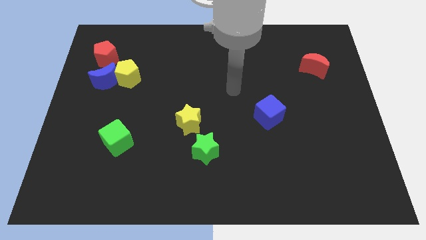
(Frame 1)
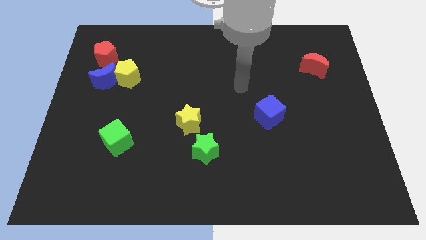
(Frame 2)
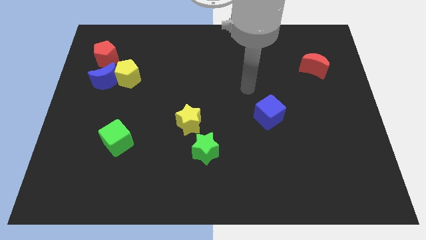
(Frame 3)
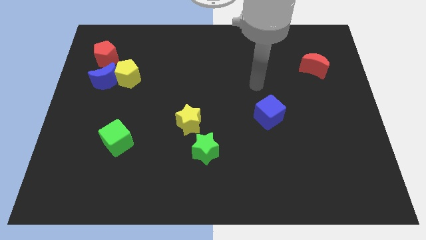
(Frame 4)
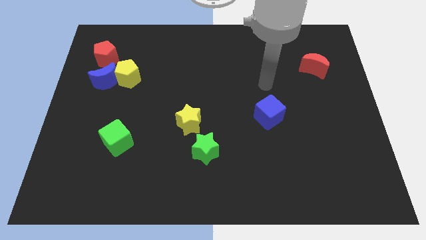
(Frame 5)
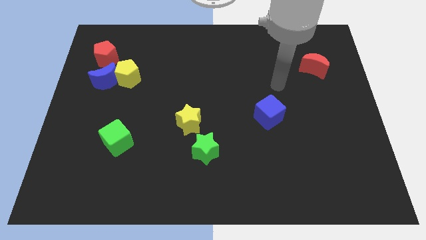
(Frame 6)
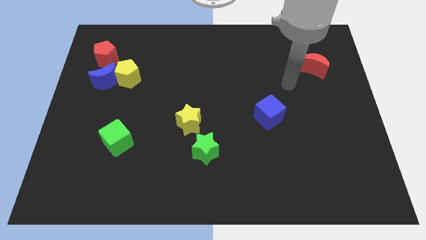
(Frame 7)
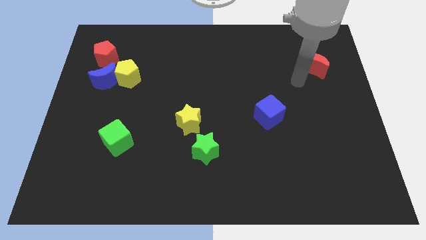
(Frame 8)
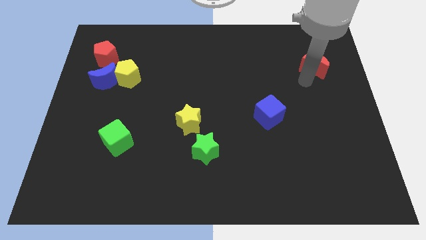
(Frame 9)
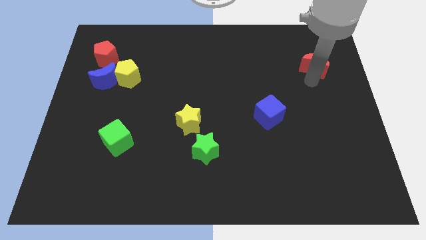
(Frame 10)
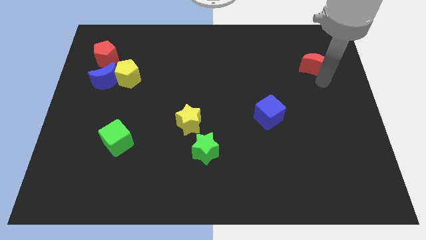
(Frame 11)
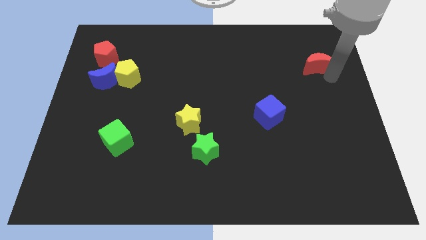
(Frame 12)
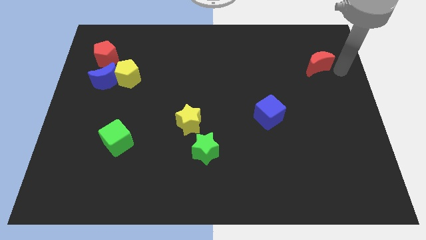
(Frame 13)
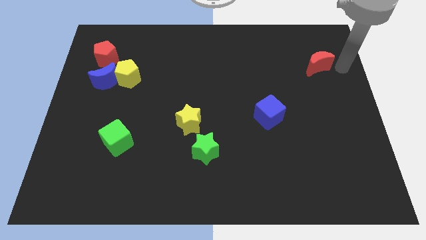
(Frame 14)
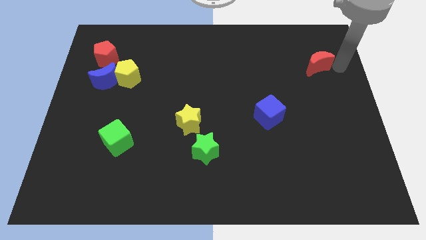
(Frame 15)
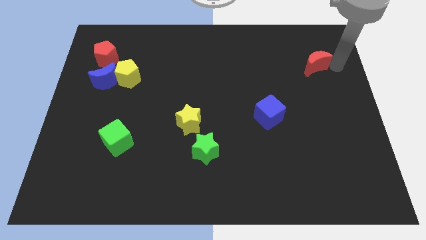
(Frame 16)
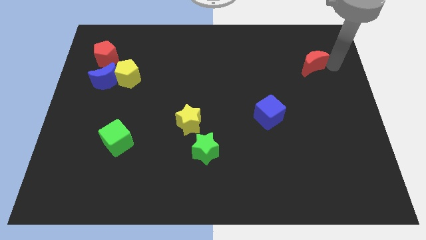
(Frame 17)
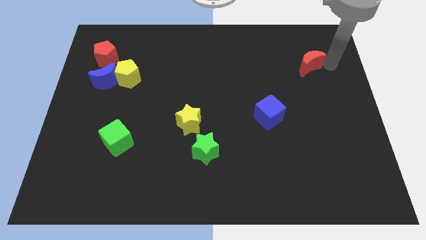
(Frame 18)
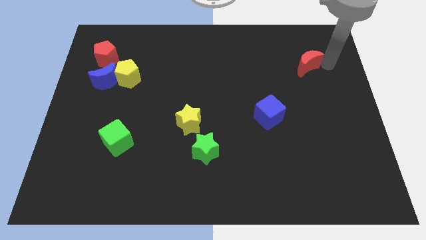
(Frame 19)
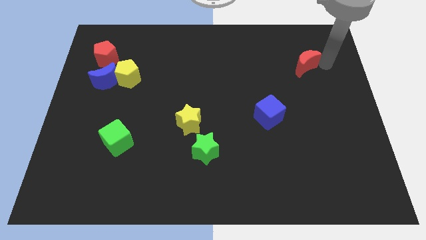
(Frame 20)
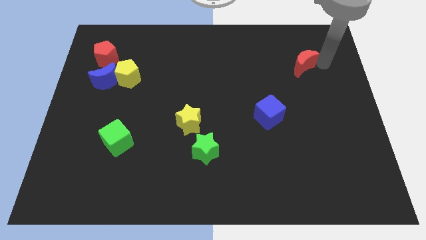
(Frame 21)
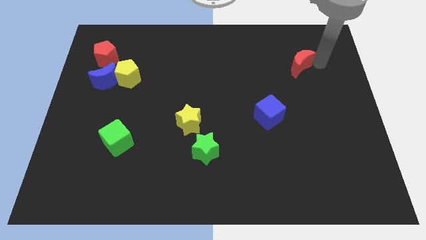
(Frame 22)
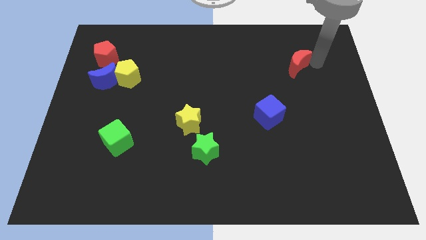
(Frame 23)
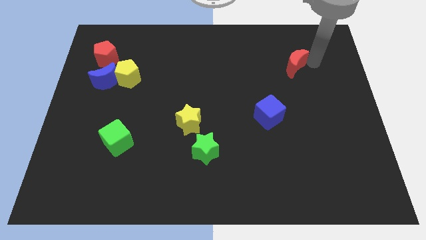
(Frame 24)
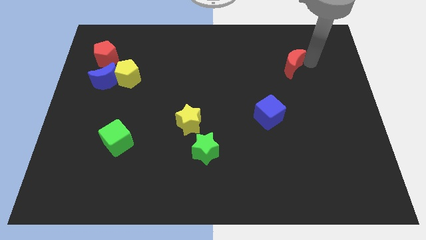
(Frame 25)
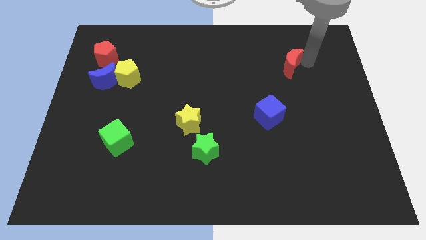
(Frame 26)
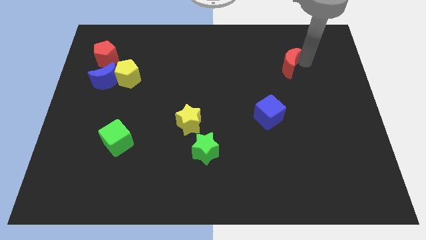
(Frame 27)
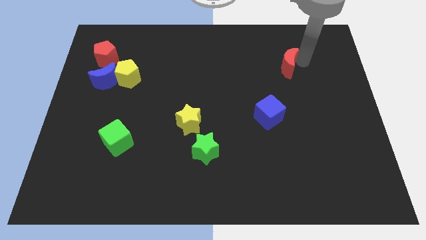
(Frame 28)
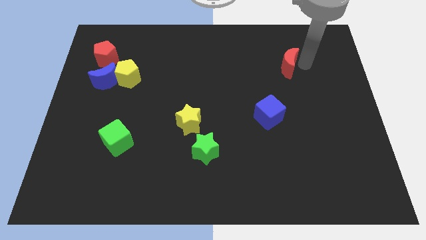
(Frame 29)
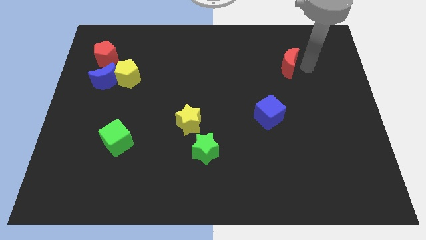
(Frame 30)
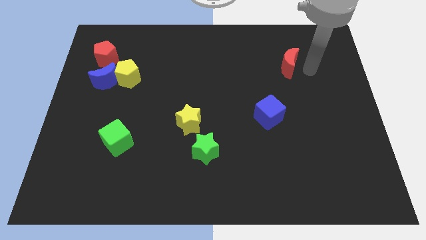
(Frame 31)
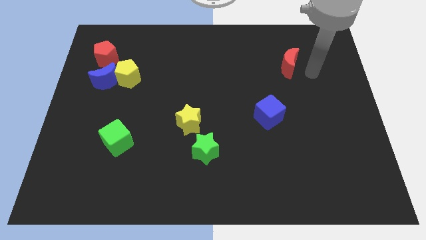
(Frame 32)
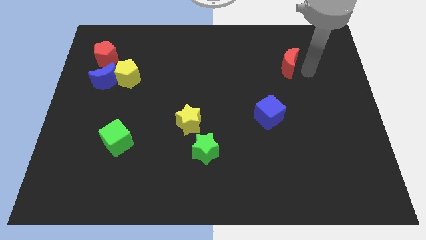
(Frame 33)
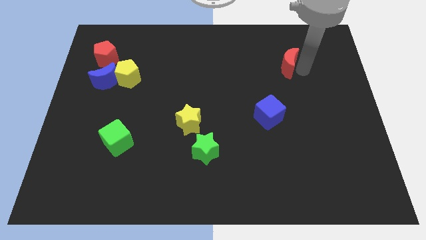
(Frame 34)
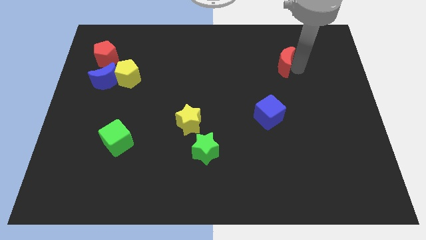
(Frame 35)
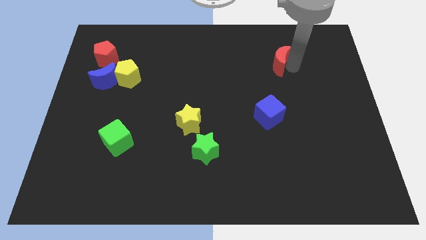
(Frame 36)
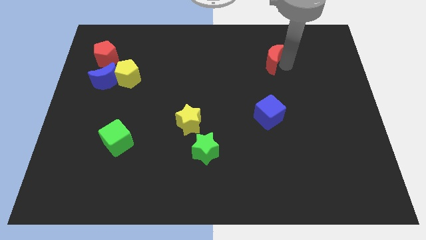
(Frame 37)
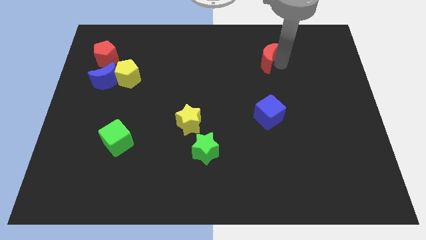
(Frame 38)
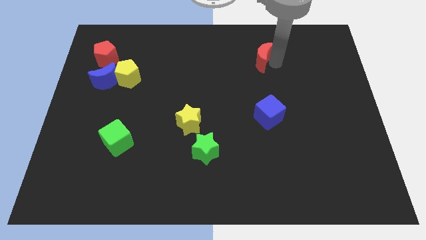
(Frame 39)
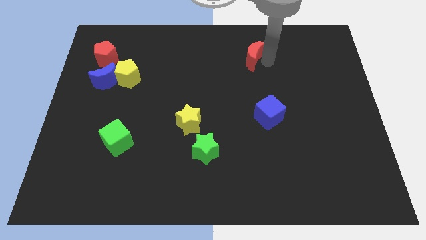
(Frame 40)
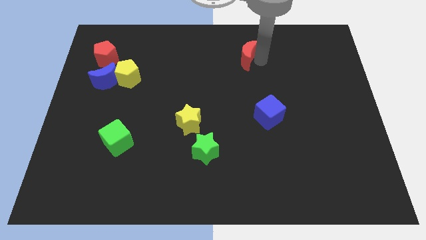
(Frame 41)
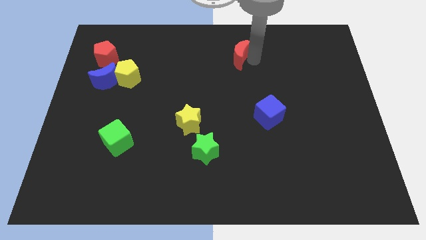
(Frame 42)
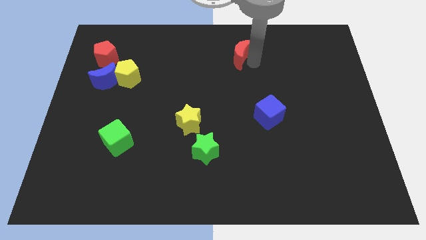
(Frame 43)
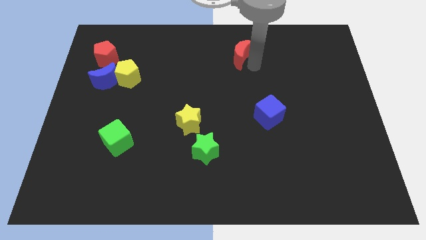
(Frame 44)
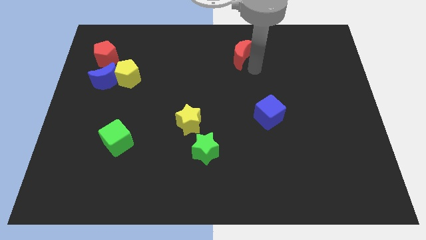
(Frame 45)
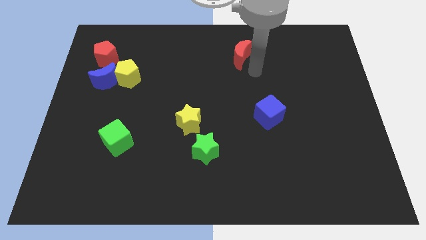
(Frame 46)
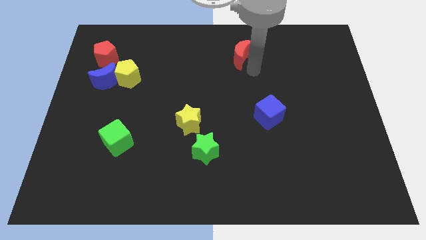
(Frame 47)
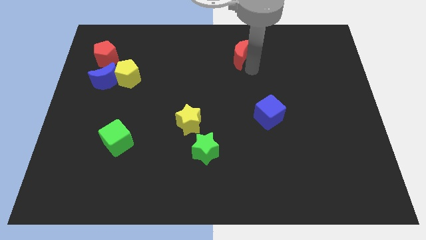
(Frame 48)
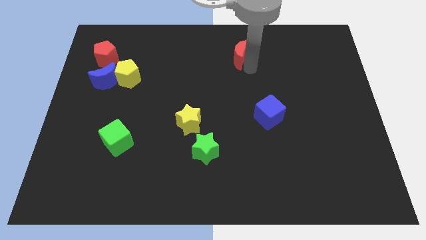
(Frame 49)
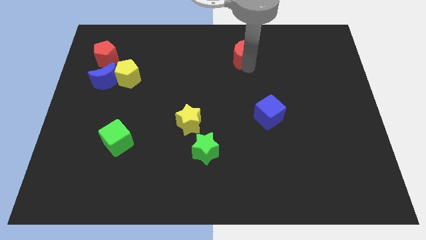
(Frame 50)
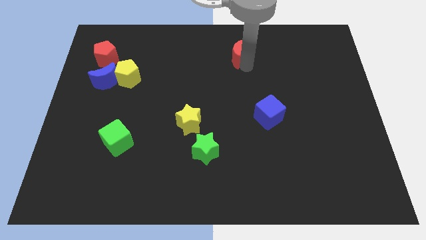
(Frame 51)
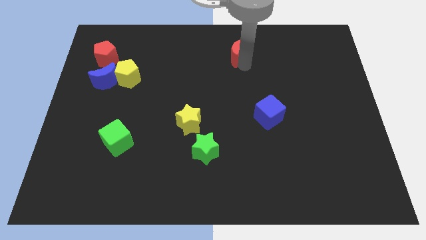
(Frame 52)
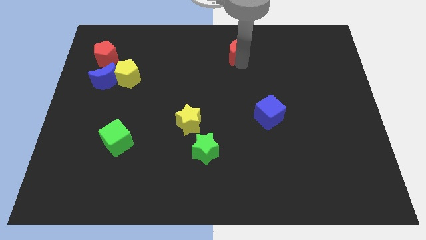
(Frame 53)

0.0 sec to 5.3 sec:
slide the red moon to the towards your base

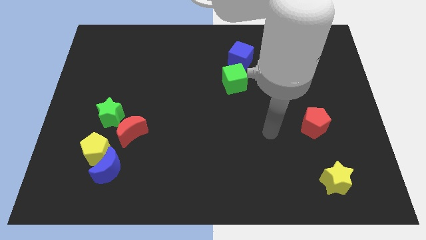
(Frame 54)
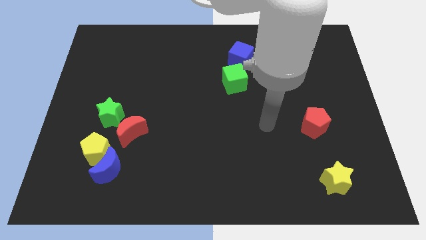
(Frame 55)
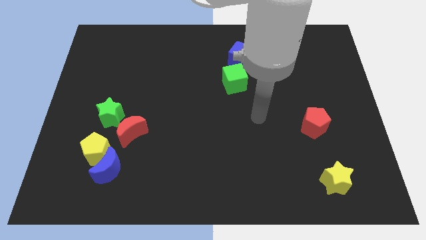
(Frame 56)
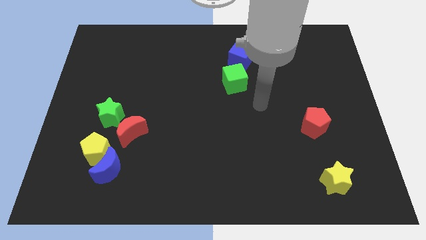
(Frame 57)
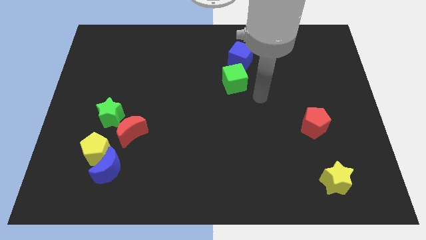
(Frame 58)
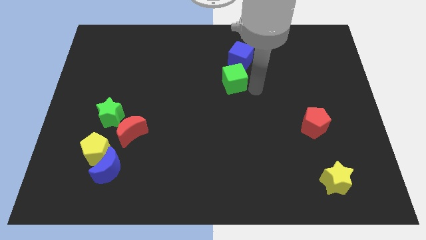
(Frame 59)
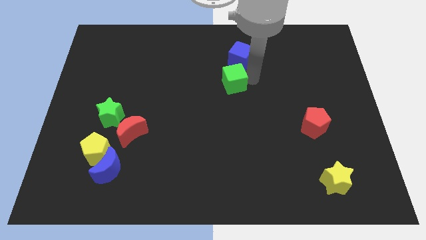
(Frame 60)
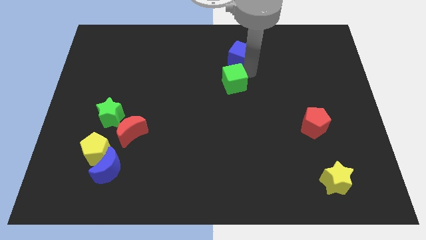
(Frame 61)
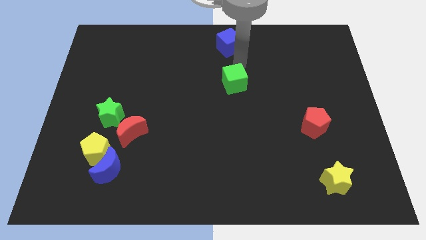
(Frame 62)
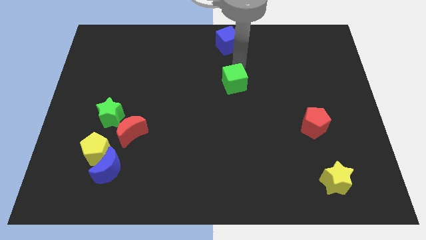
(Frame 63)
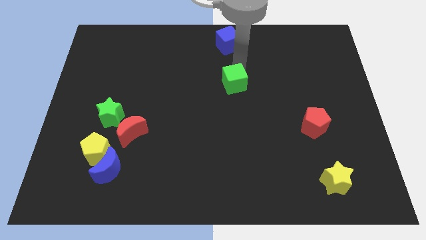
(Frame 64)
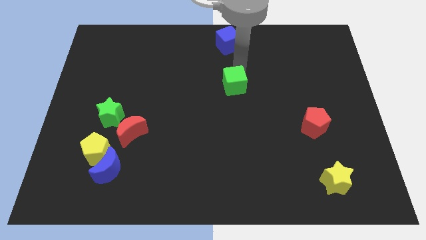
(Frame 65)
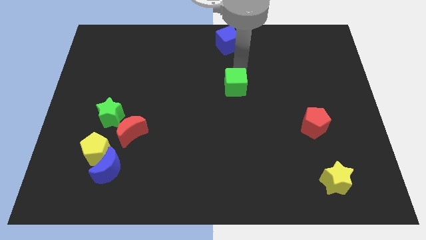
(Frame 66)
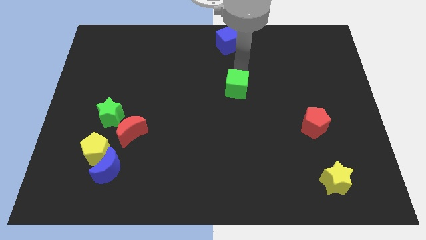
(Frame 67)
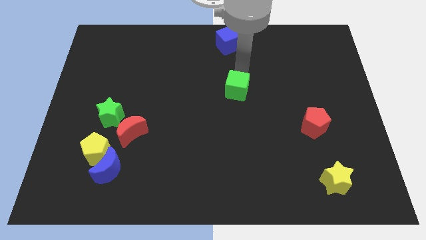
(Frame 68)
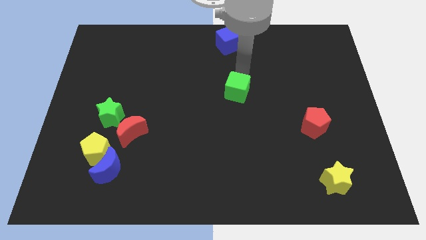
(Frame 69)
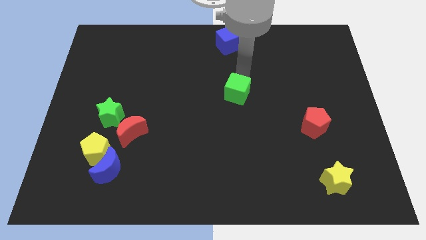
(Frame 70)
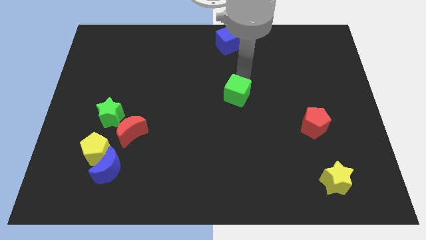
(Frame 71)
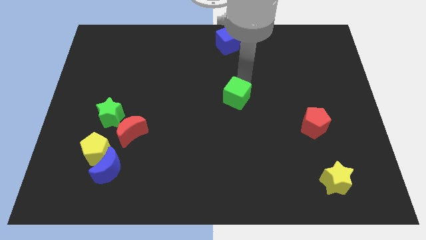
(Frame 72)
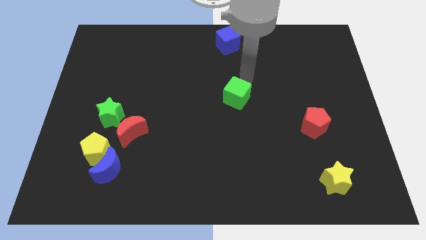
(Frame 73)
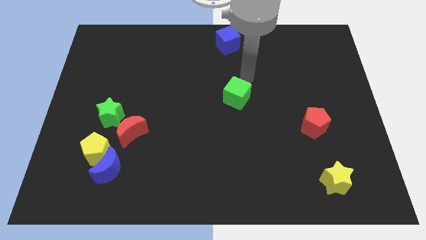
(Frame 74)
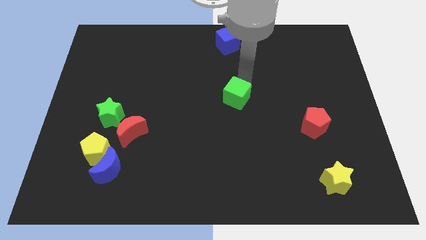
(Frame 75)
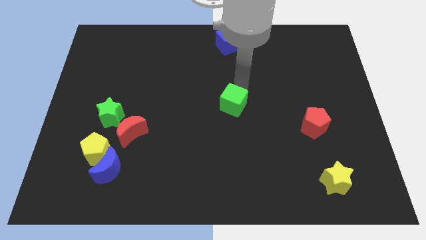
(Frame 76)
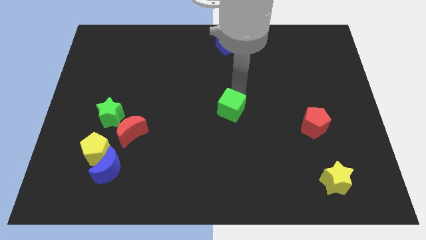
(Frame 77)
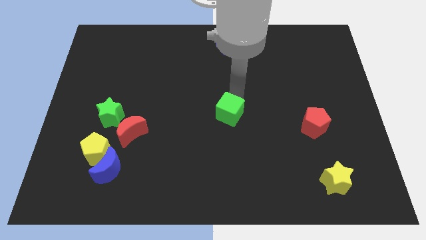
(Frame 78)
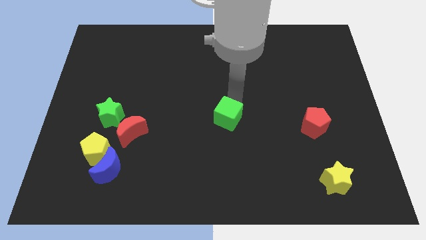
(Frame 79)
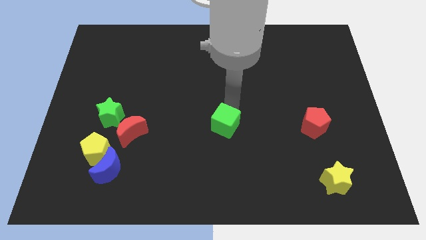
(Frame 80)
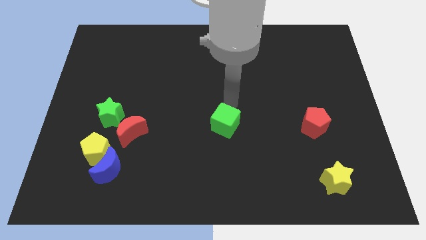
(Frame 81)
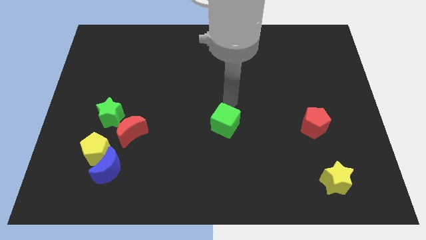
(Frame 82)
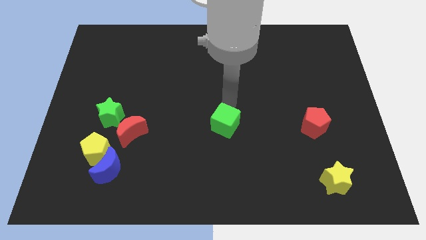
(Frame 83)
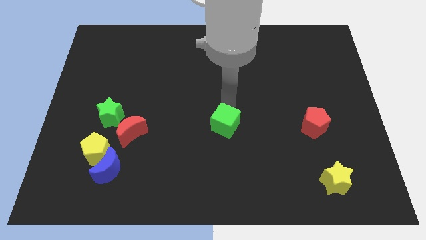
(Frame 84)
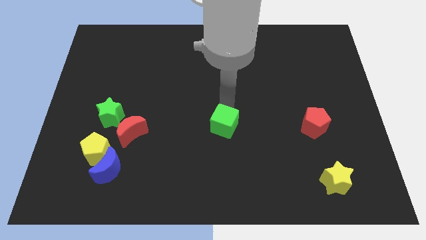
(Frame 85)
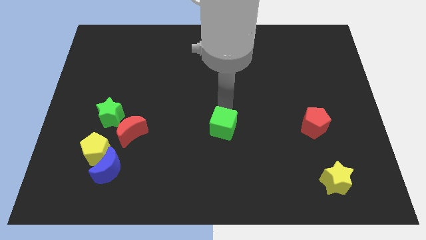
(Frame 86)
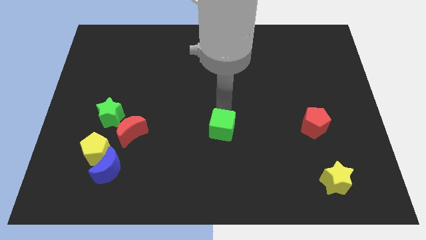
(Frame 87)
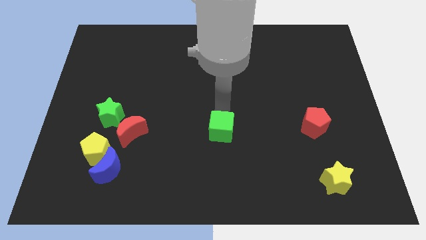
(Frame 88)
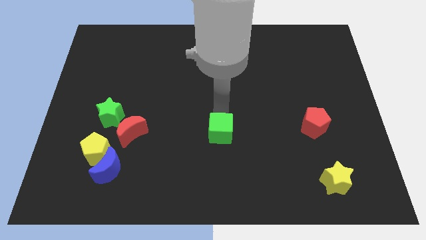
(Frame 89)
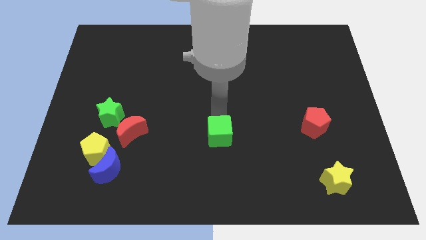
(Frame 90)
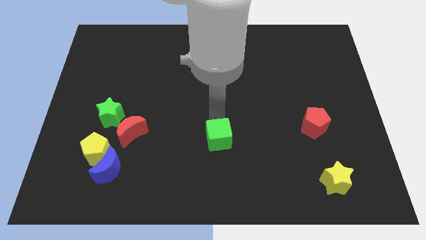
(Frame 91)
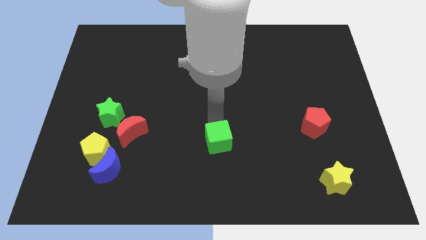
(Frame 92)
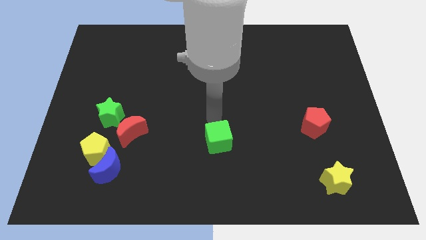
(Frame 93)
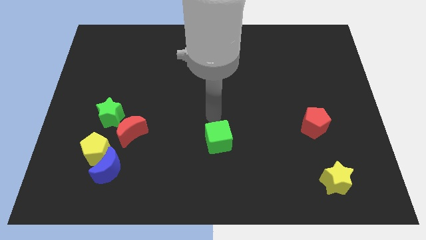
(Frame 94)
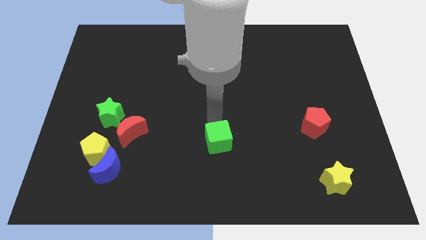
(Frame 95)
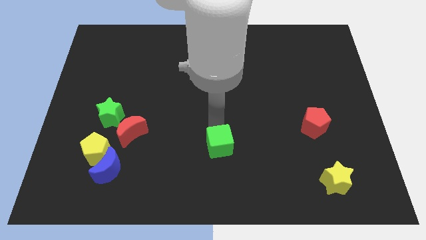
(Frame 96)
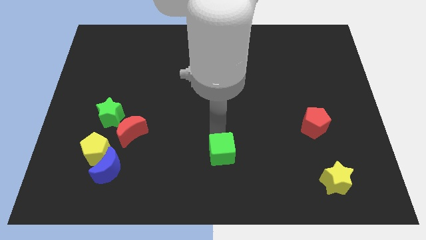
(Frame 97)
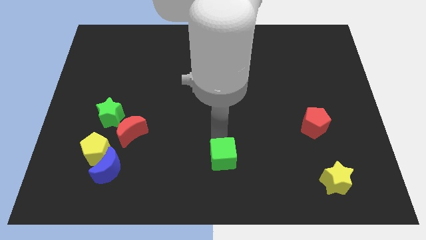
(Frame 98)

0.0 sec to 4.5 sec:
put the green cube to the bottom
